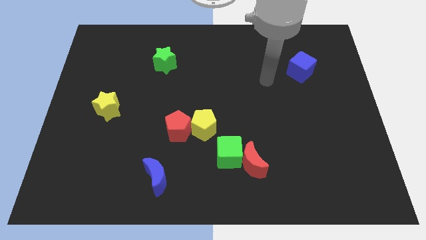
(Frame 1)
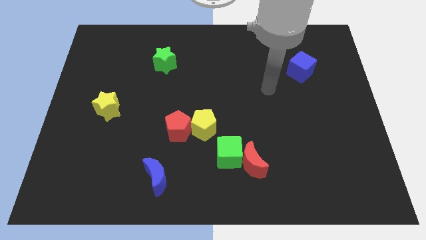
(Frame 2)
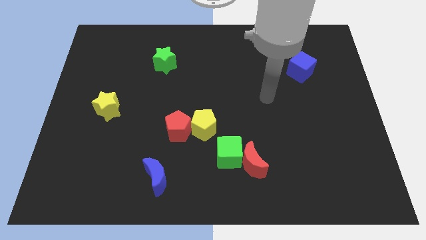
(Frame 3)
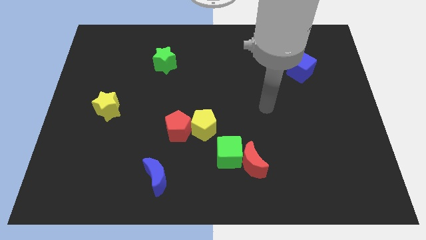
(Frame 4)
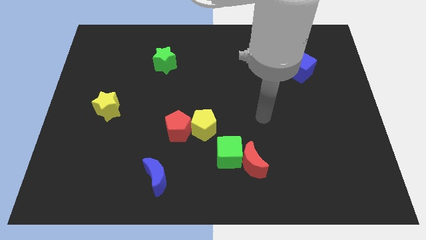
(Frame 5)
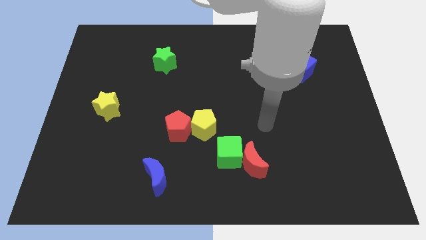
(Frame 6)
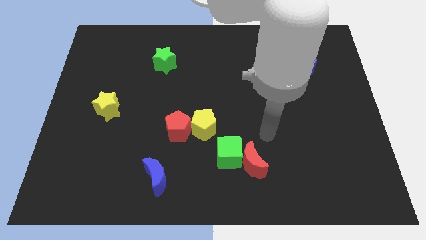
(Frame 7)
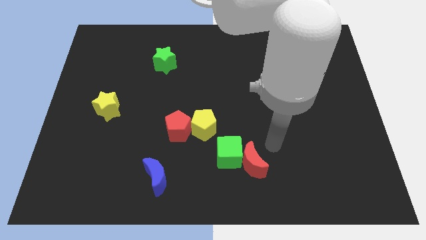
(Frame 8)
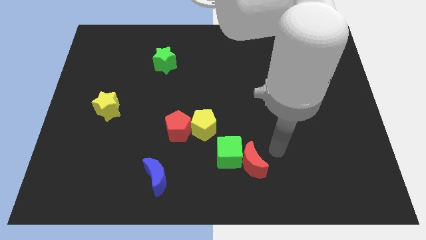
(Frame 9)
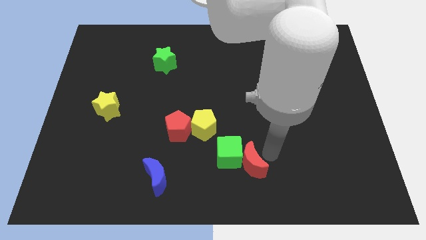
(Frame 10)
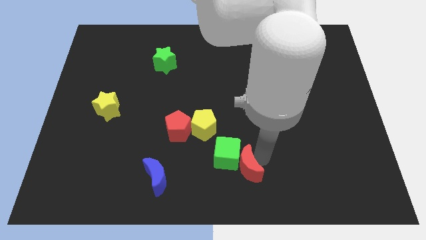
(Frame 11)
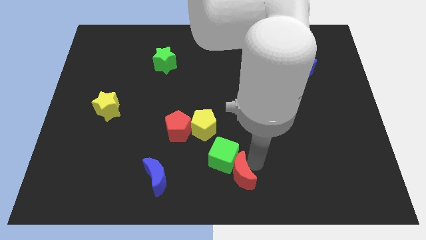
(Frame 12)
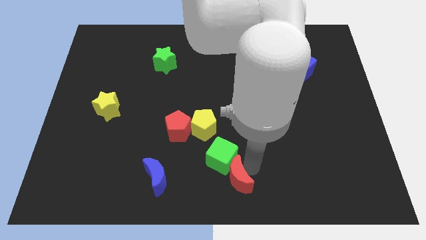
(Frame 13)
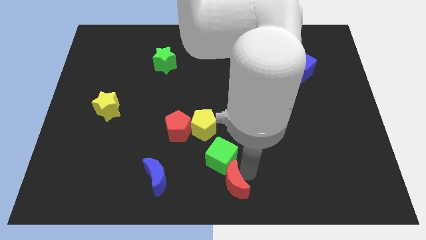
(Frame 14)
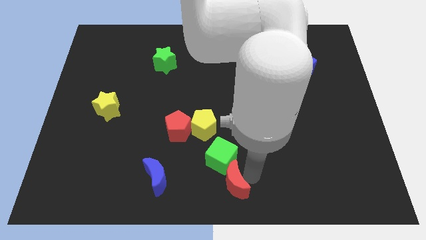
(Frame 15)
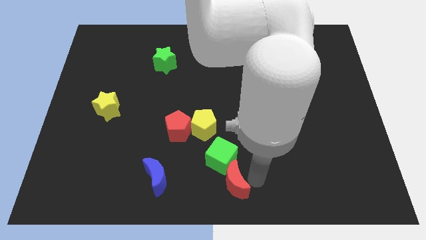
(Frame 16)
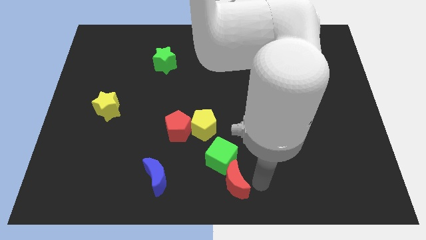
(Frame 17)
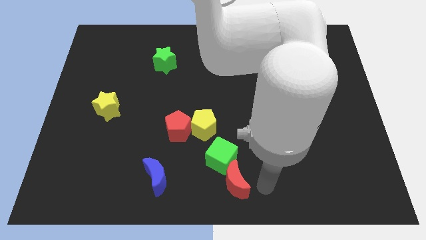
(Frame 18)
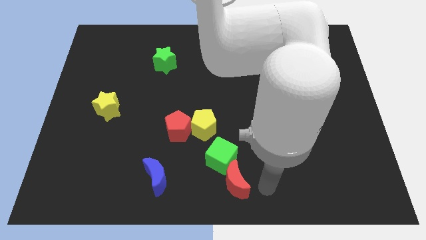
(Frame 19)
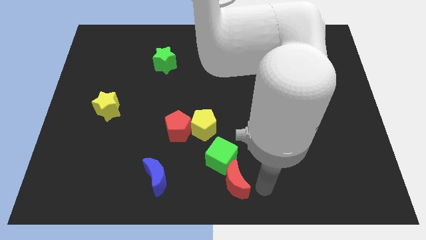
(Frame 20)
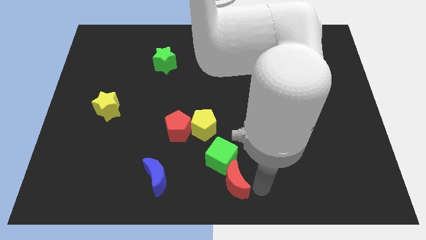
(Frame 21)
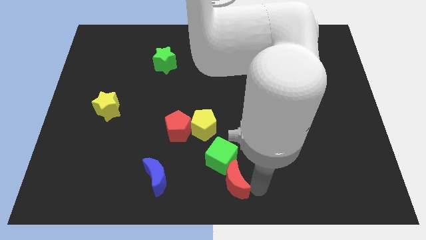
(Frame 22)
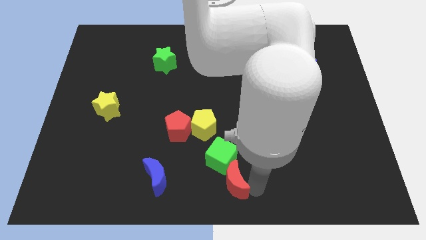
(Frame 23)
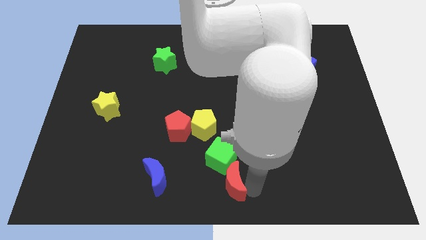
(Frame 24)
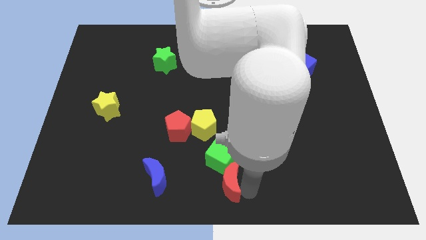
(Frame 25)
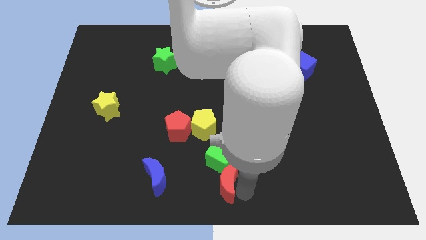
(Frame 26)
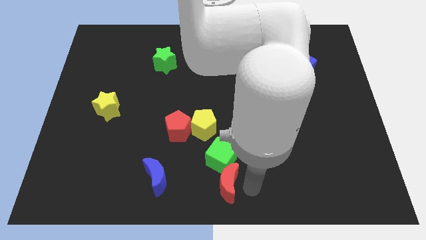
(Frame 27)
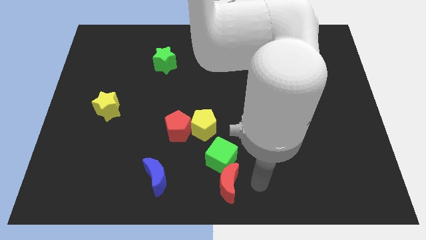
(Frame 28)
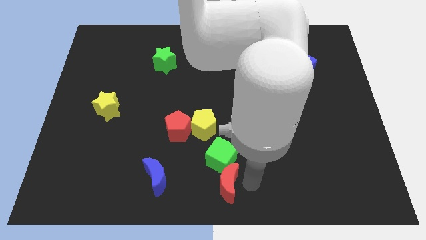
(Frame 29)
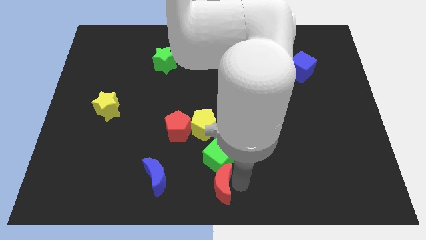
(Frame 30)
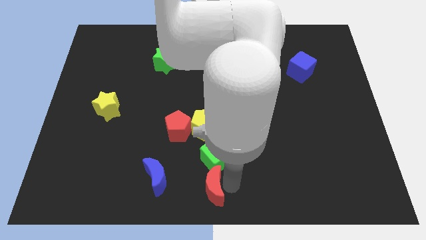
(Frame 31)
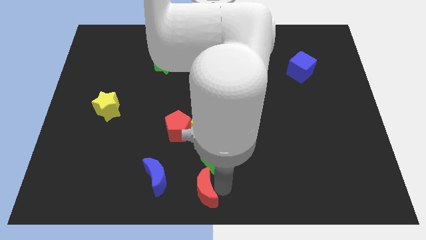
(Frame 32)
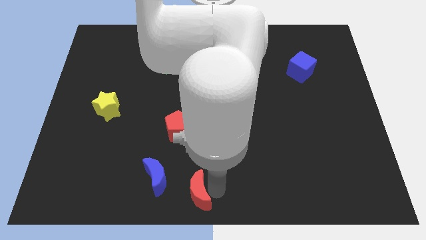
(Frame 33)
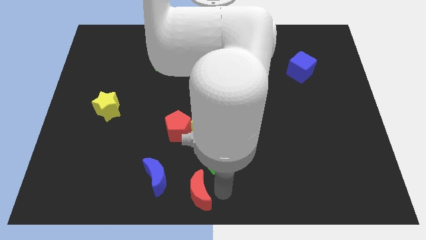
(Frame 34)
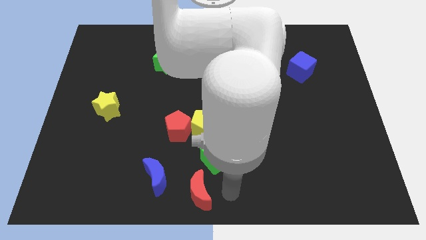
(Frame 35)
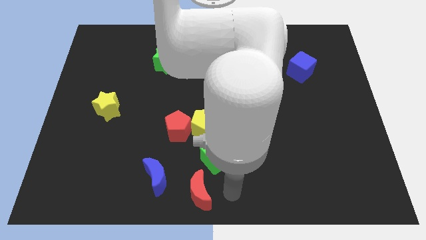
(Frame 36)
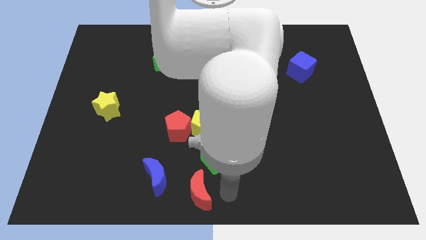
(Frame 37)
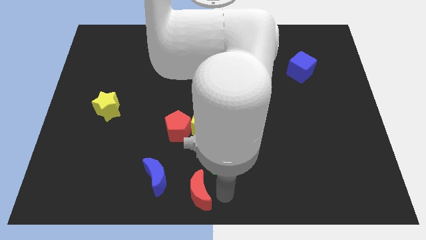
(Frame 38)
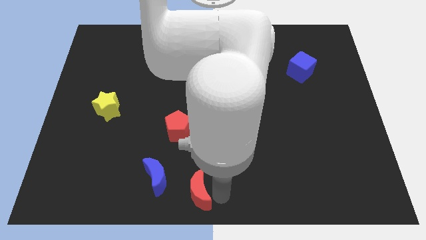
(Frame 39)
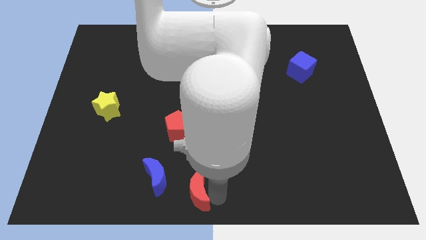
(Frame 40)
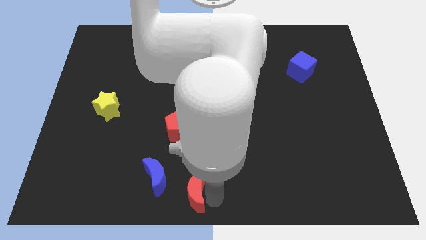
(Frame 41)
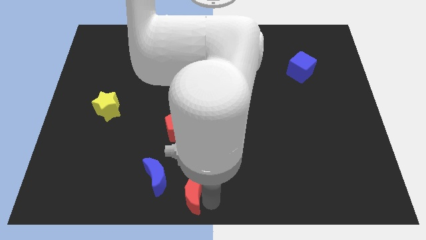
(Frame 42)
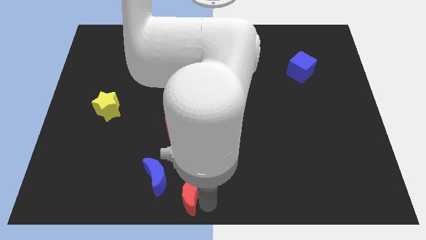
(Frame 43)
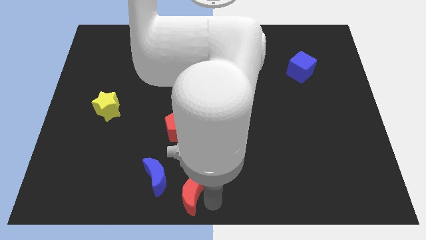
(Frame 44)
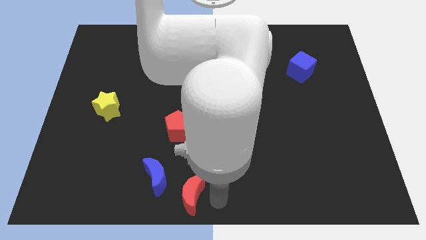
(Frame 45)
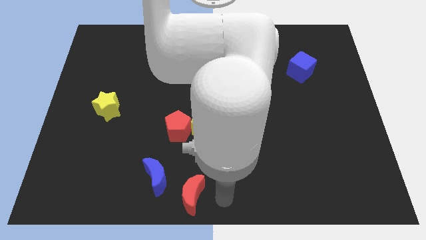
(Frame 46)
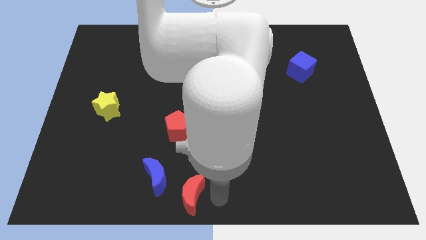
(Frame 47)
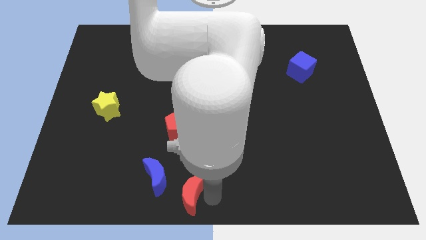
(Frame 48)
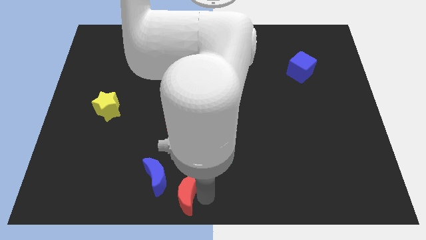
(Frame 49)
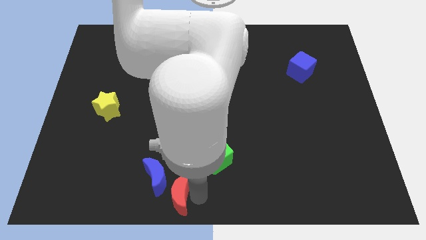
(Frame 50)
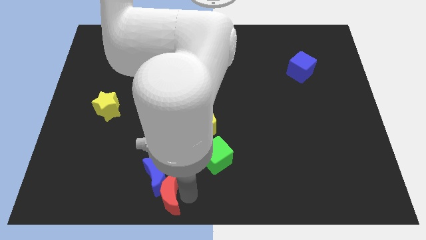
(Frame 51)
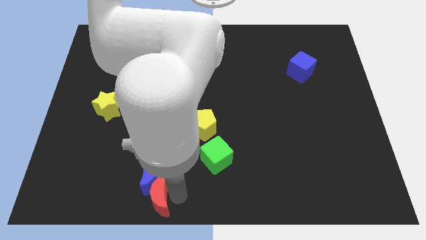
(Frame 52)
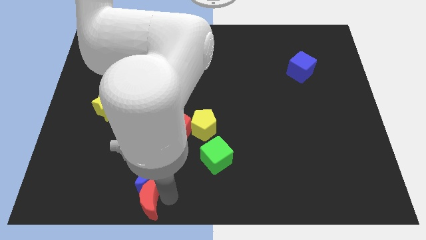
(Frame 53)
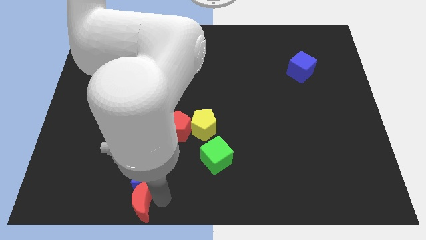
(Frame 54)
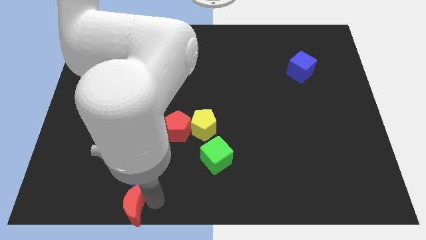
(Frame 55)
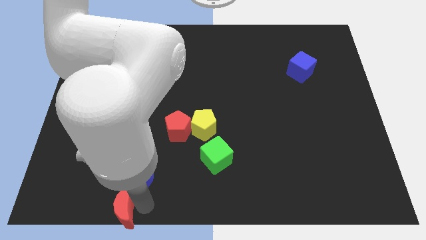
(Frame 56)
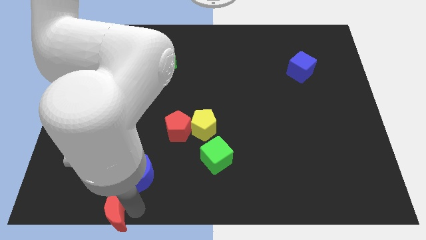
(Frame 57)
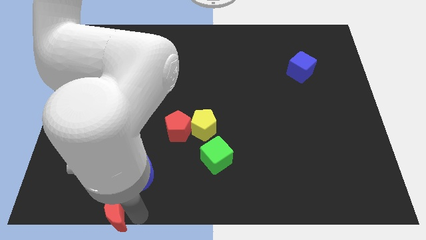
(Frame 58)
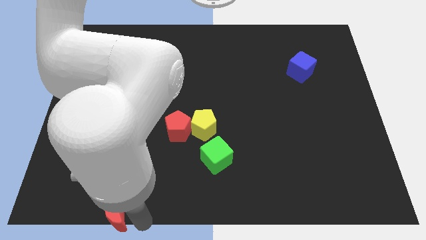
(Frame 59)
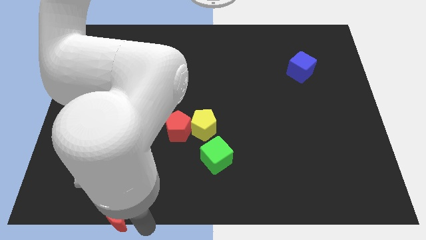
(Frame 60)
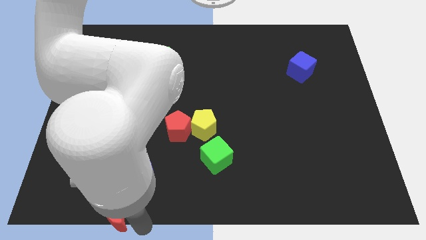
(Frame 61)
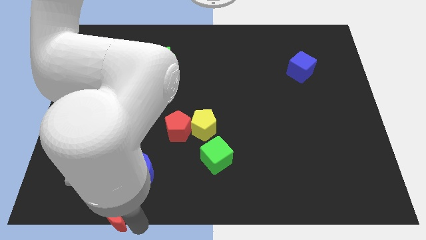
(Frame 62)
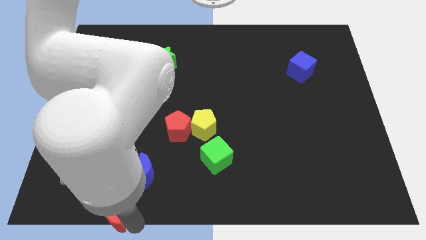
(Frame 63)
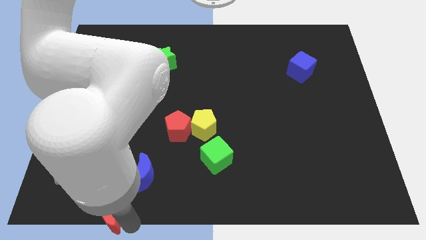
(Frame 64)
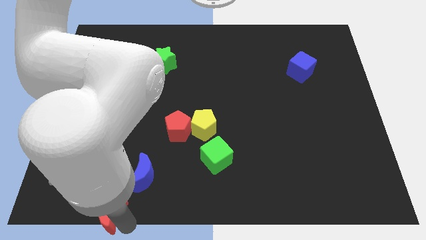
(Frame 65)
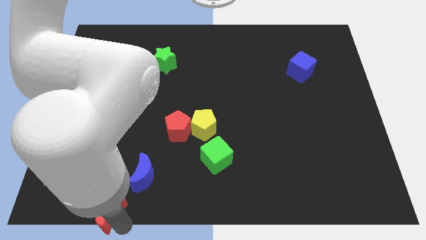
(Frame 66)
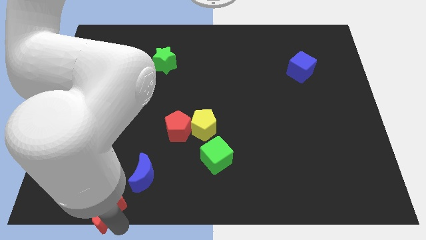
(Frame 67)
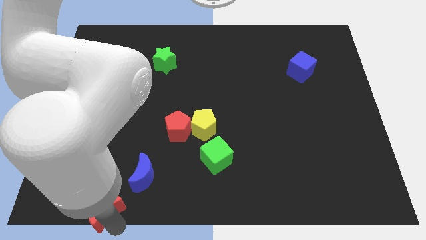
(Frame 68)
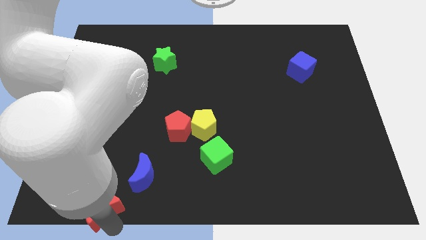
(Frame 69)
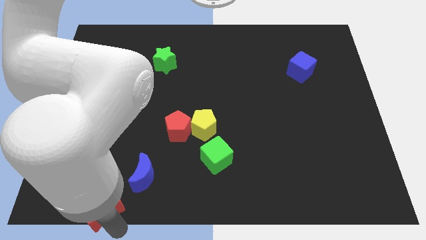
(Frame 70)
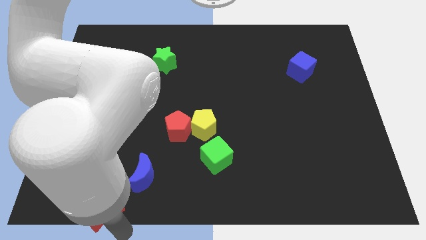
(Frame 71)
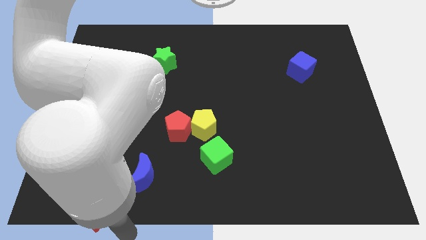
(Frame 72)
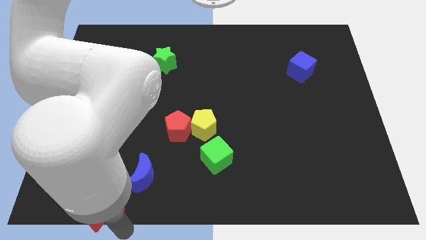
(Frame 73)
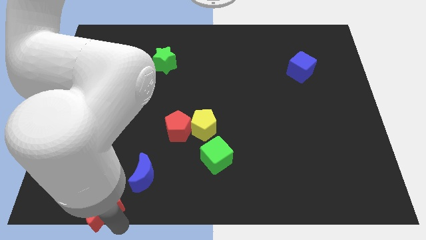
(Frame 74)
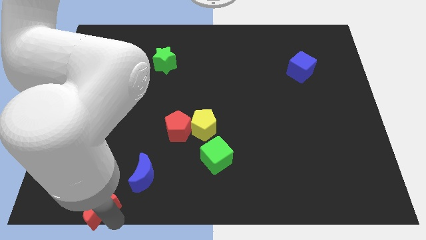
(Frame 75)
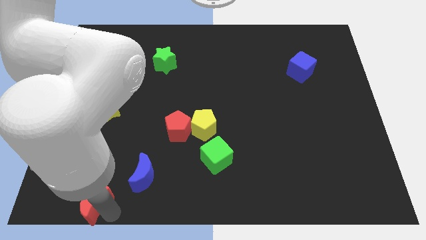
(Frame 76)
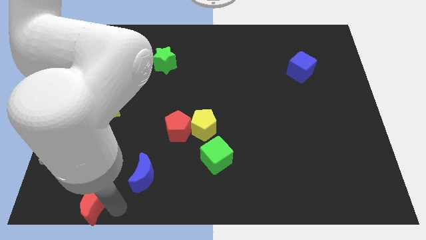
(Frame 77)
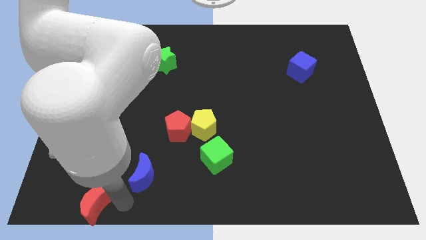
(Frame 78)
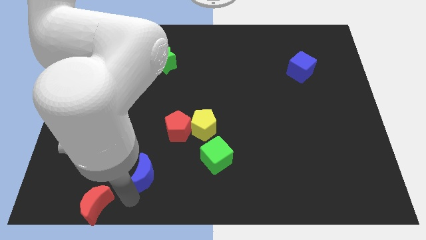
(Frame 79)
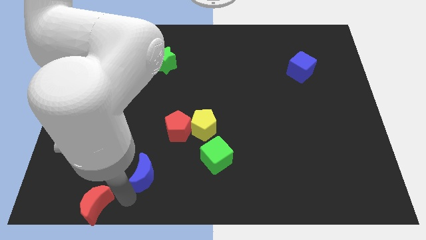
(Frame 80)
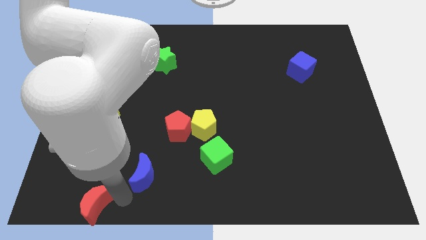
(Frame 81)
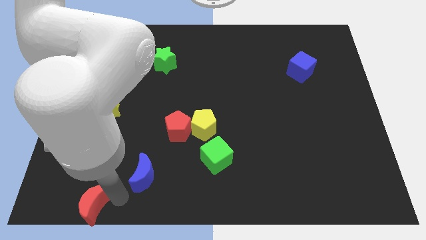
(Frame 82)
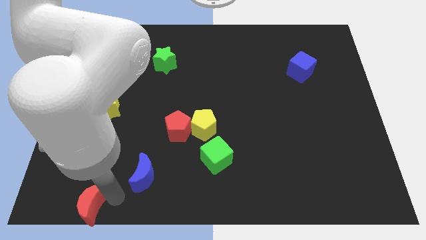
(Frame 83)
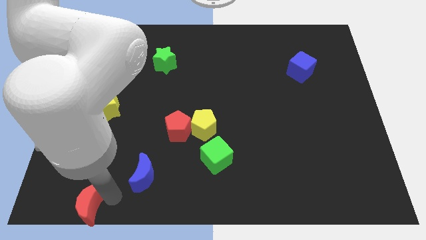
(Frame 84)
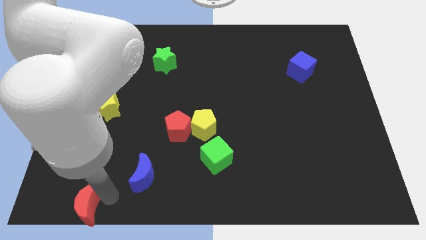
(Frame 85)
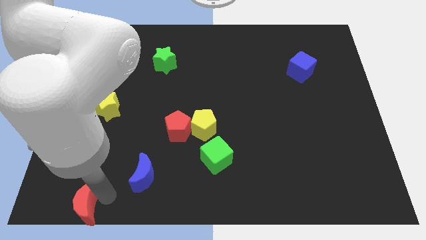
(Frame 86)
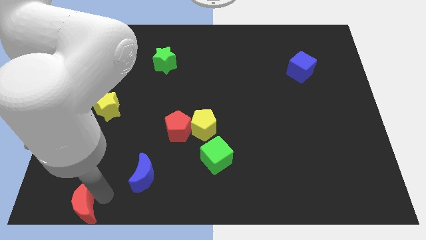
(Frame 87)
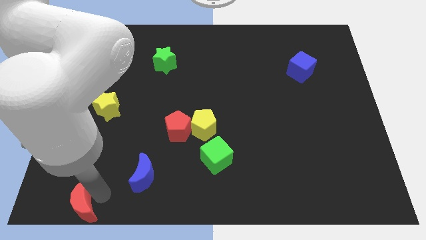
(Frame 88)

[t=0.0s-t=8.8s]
push the red moon to the lower left corner
